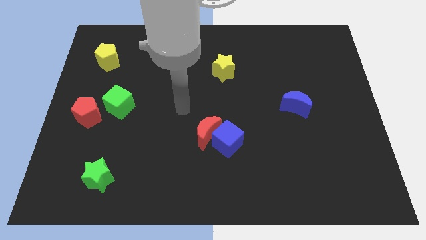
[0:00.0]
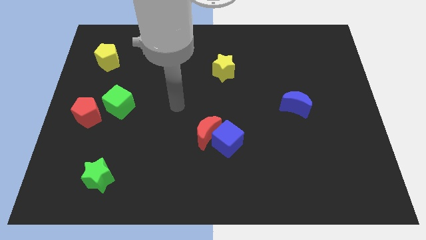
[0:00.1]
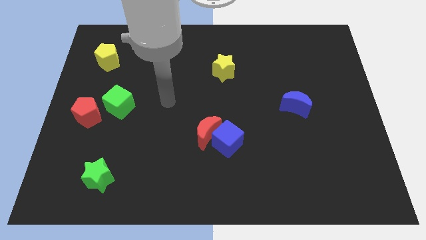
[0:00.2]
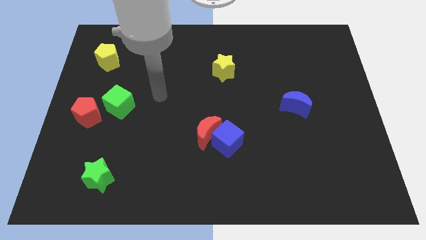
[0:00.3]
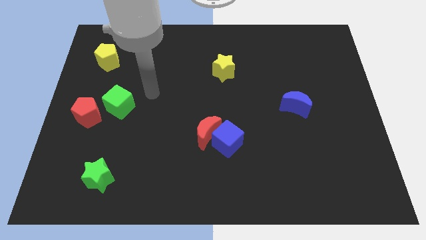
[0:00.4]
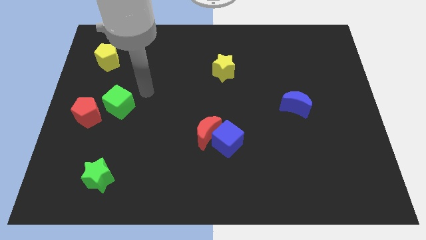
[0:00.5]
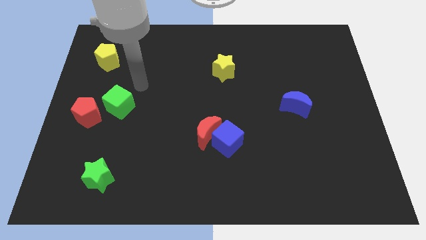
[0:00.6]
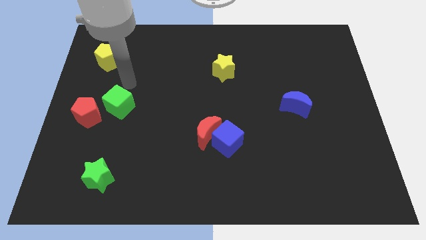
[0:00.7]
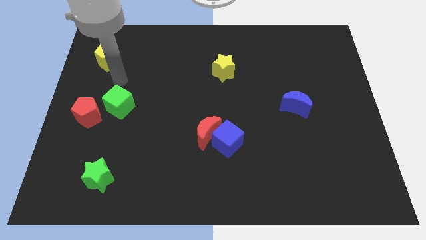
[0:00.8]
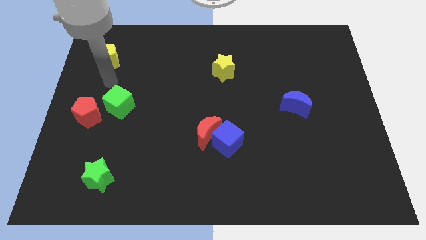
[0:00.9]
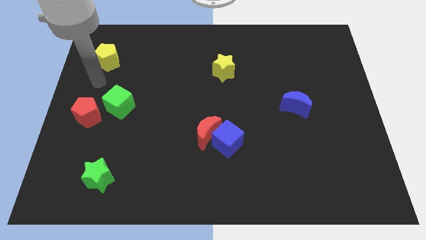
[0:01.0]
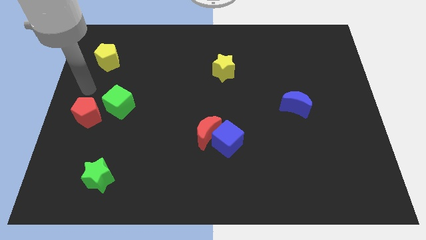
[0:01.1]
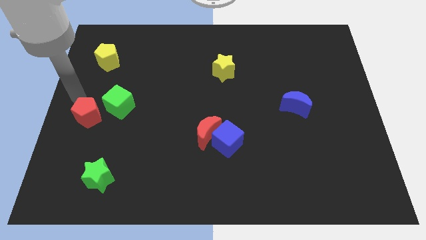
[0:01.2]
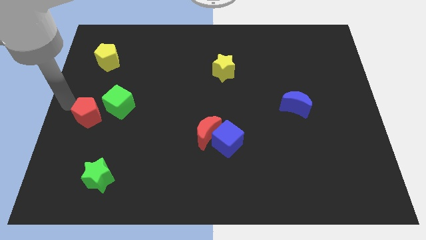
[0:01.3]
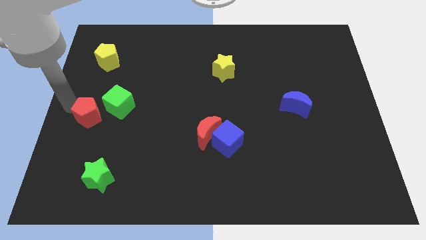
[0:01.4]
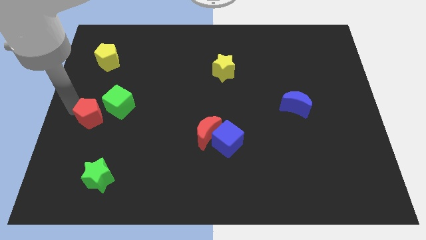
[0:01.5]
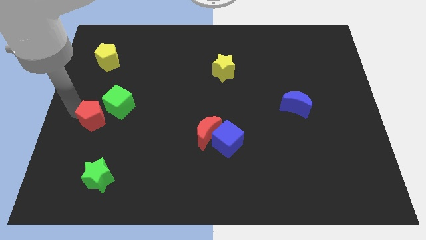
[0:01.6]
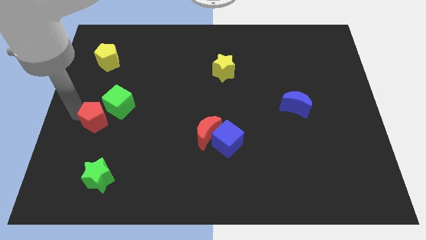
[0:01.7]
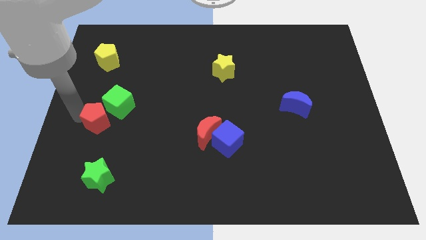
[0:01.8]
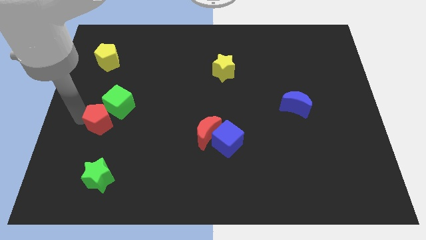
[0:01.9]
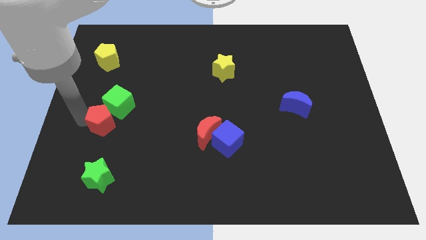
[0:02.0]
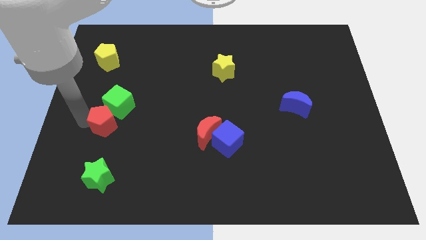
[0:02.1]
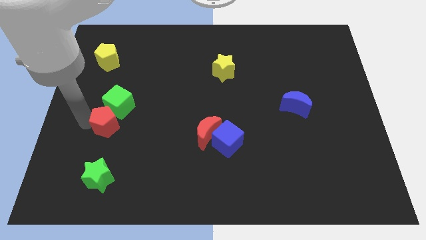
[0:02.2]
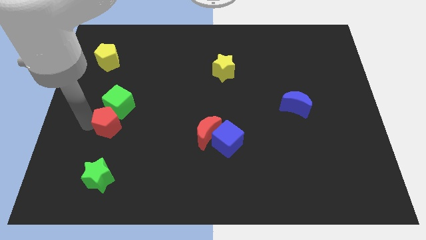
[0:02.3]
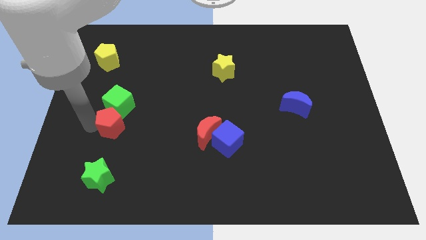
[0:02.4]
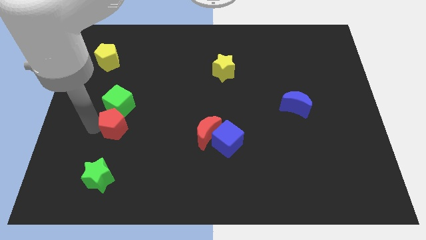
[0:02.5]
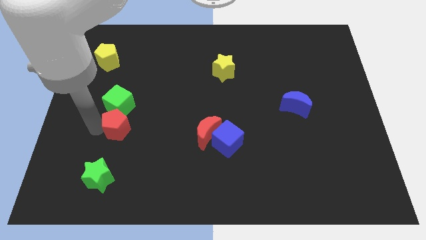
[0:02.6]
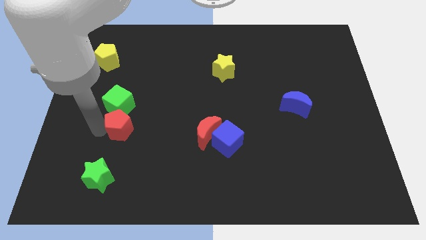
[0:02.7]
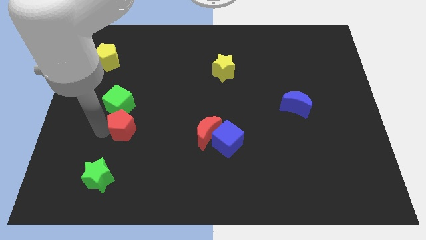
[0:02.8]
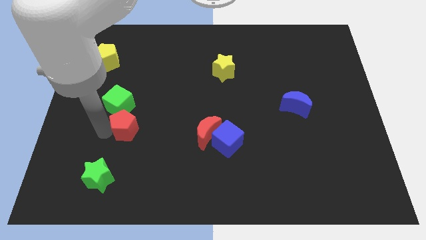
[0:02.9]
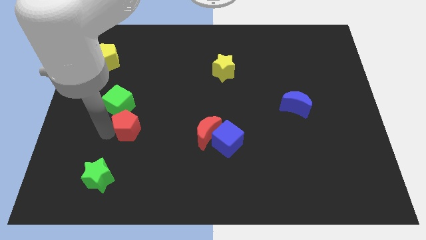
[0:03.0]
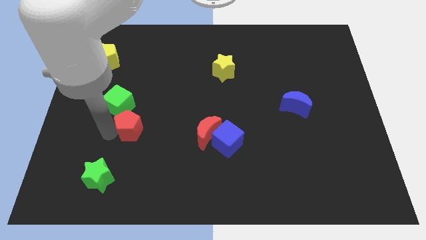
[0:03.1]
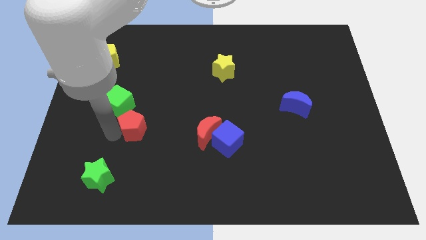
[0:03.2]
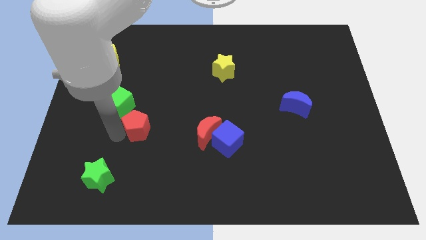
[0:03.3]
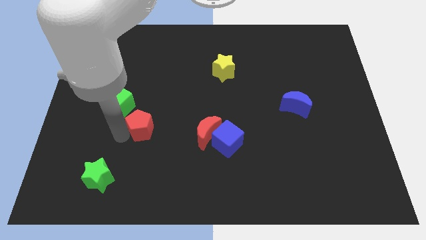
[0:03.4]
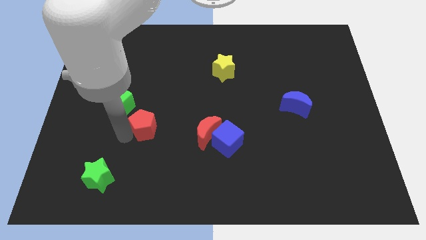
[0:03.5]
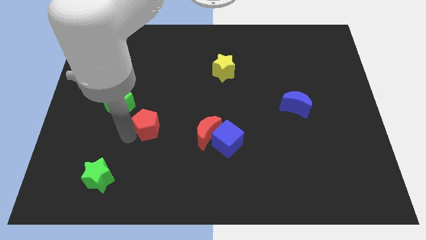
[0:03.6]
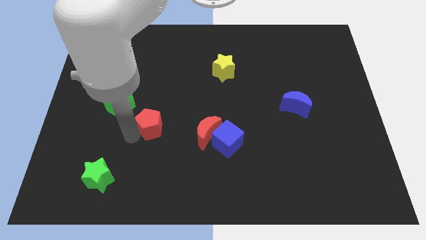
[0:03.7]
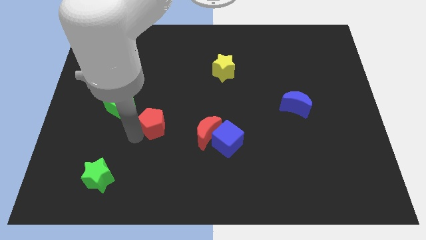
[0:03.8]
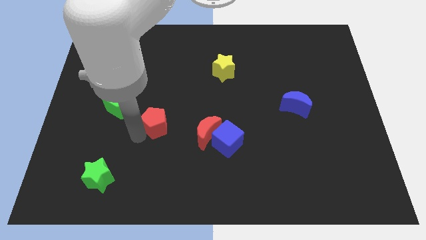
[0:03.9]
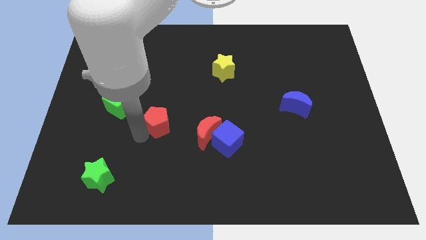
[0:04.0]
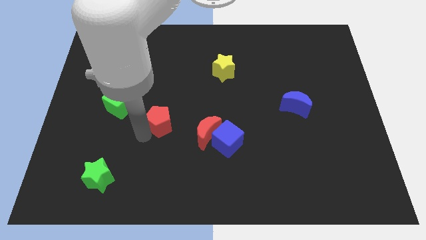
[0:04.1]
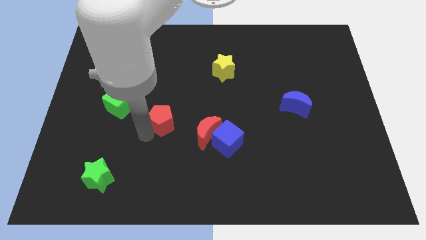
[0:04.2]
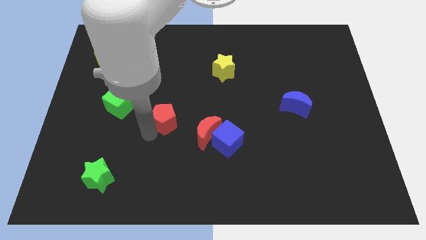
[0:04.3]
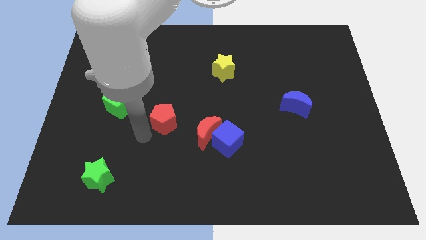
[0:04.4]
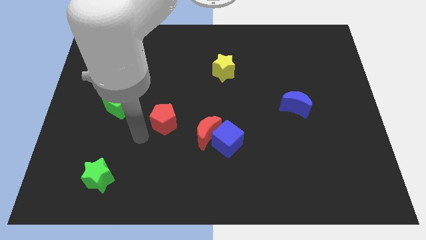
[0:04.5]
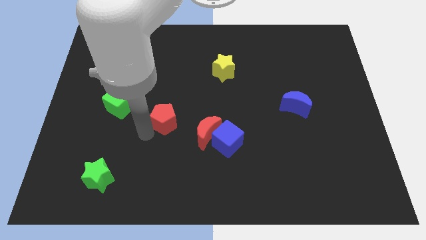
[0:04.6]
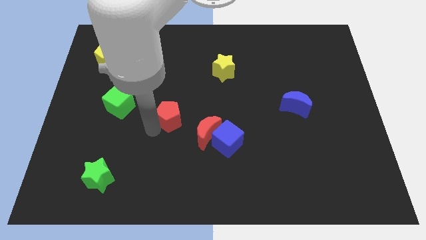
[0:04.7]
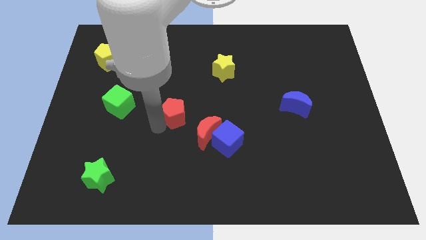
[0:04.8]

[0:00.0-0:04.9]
move the red pentagon right

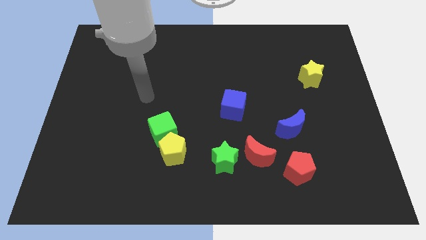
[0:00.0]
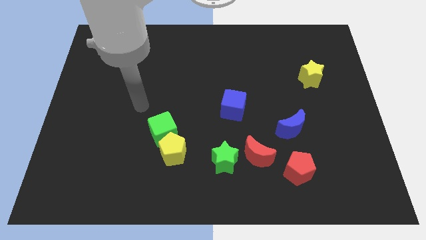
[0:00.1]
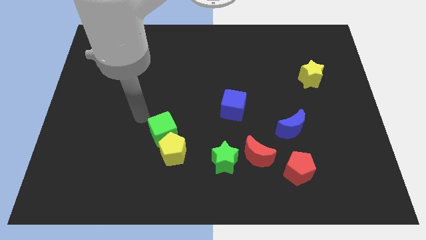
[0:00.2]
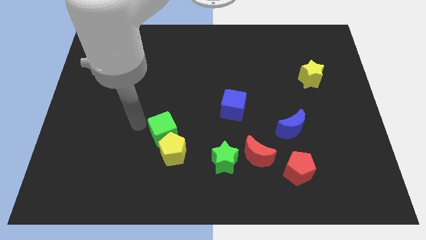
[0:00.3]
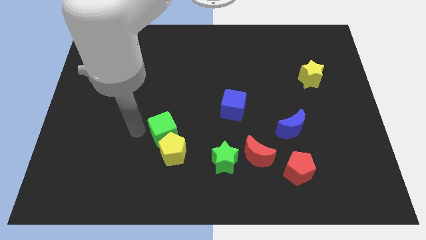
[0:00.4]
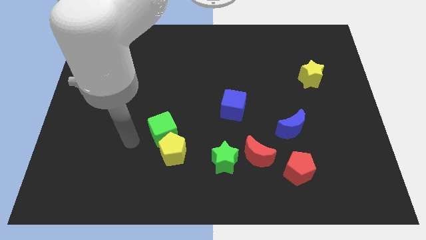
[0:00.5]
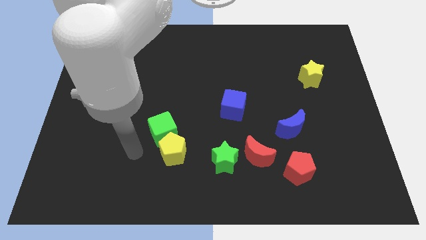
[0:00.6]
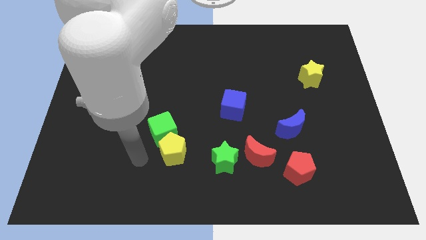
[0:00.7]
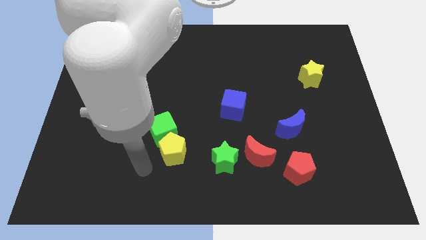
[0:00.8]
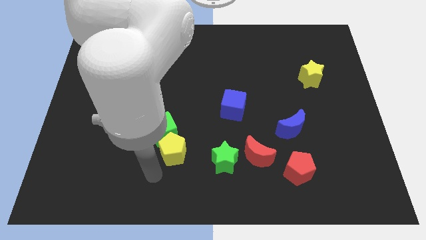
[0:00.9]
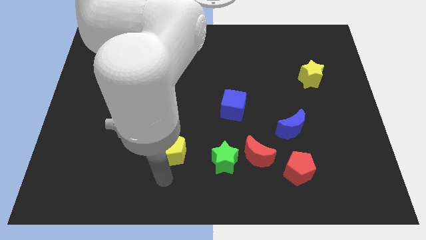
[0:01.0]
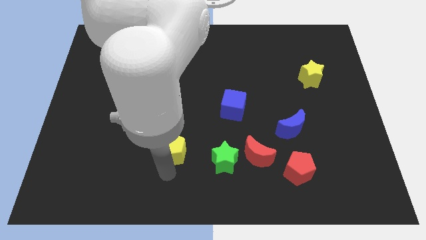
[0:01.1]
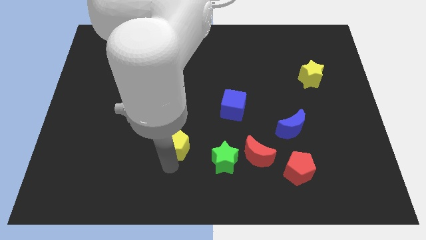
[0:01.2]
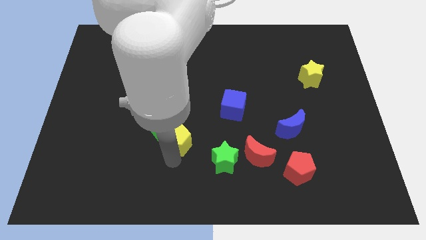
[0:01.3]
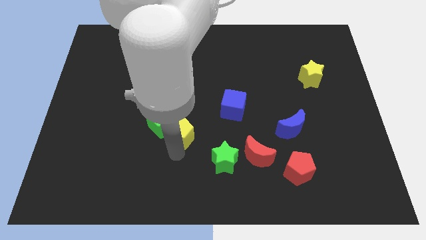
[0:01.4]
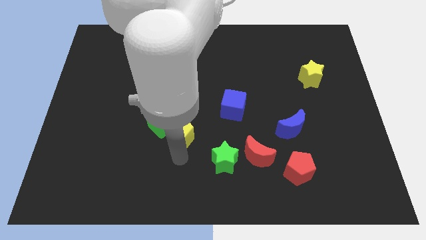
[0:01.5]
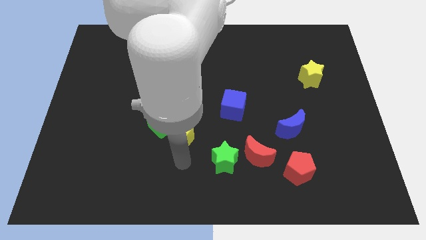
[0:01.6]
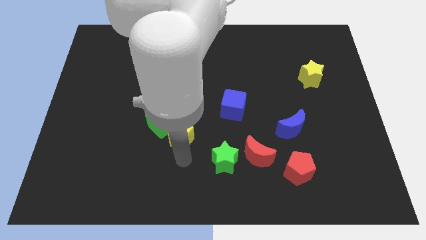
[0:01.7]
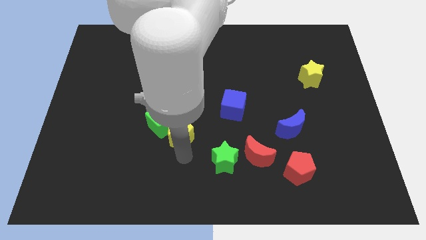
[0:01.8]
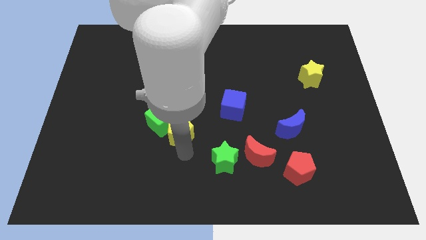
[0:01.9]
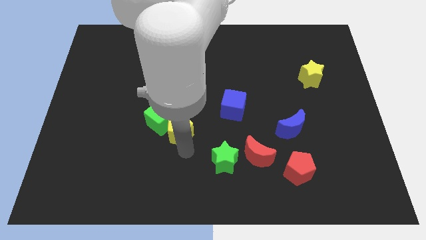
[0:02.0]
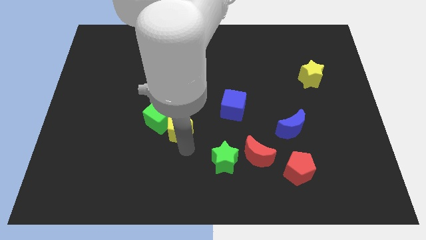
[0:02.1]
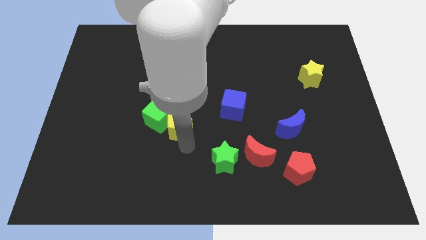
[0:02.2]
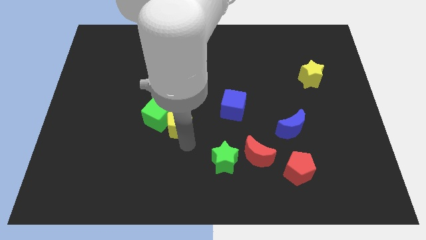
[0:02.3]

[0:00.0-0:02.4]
push the yellow pentagon a little up

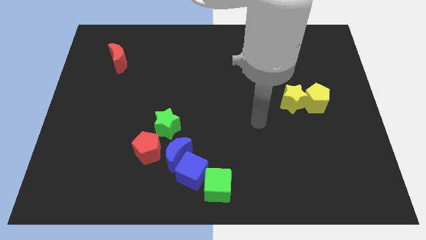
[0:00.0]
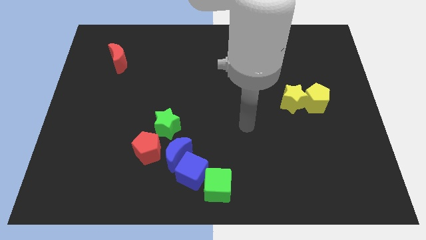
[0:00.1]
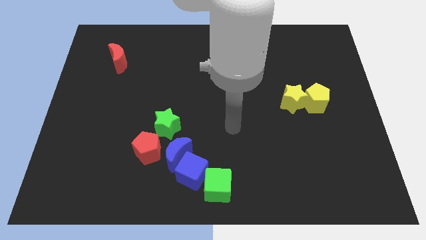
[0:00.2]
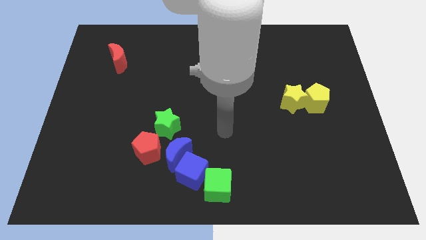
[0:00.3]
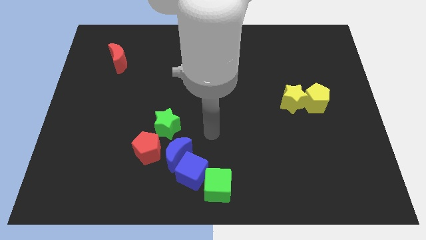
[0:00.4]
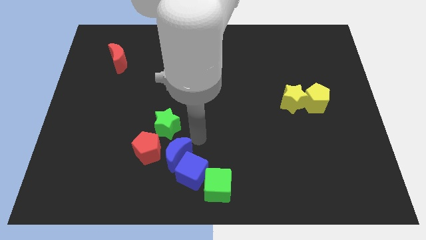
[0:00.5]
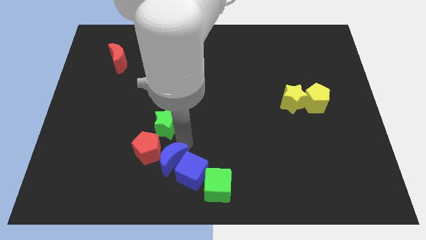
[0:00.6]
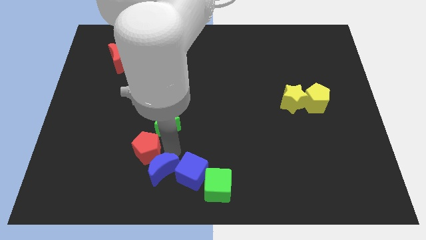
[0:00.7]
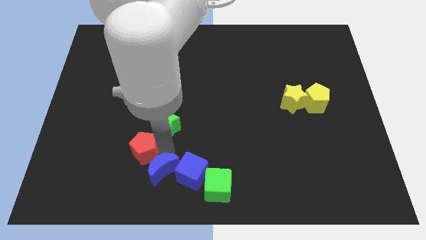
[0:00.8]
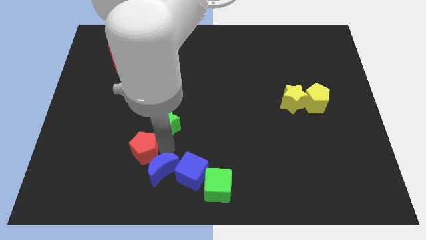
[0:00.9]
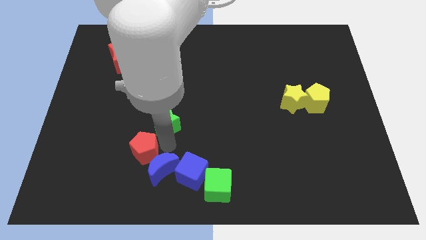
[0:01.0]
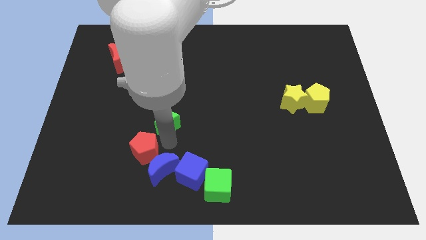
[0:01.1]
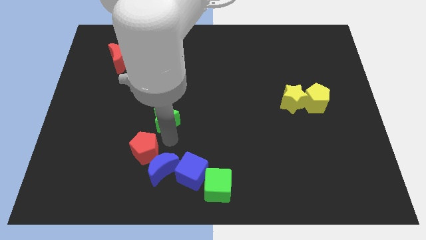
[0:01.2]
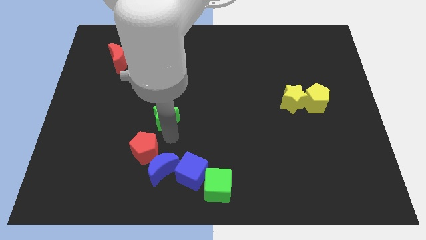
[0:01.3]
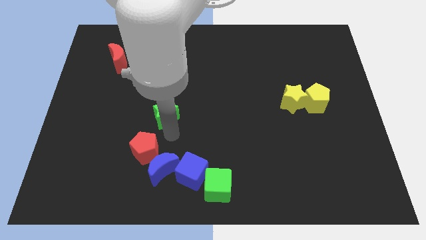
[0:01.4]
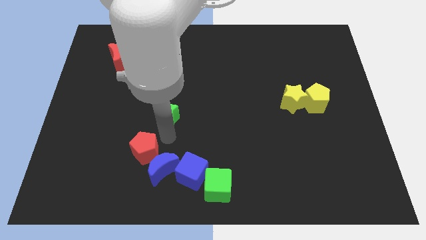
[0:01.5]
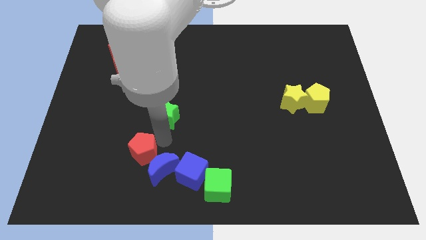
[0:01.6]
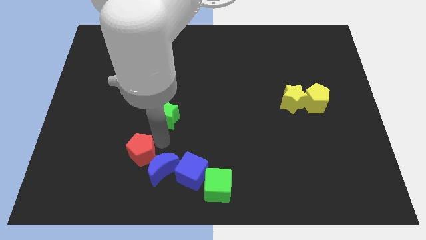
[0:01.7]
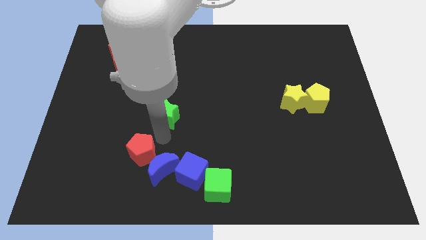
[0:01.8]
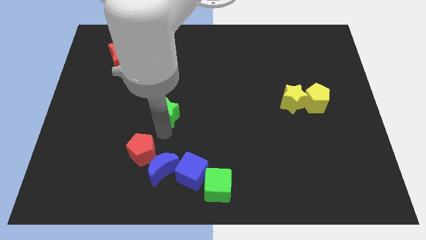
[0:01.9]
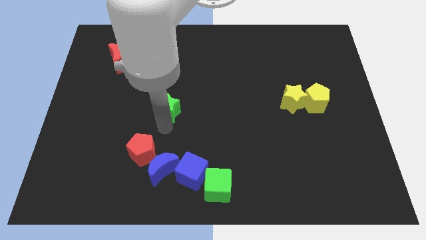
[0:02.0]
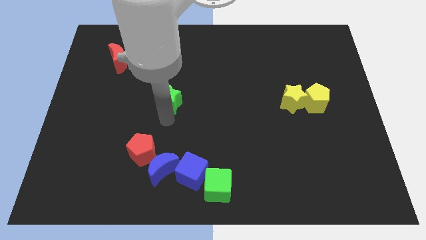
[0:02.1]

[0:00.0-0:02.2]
slide the green star upwards a bit
